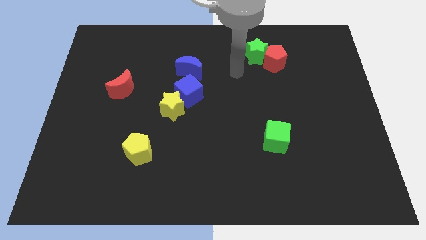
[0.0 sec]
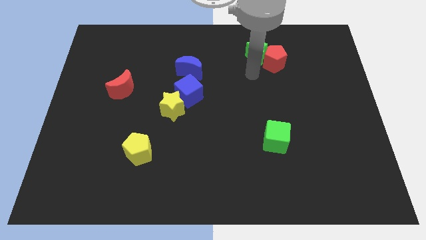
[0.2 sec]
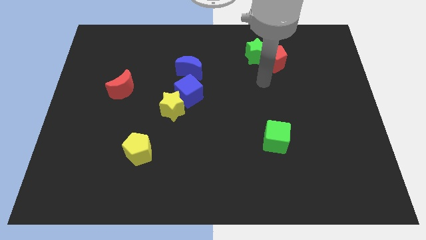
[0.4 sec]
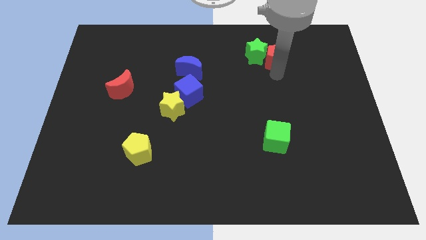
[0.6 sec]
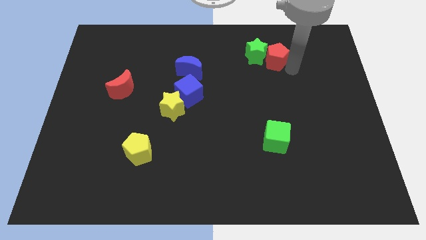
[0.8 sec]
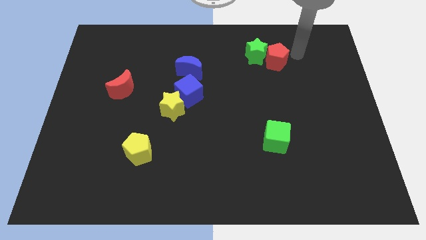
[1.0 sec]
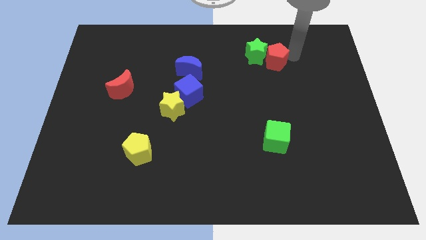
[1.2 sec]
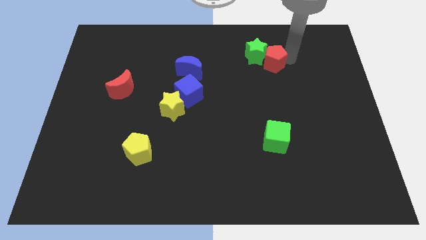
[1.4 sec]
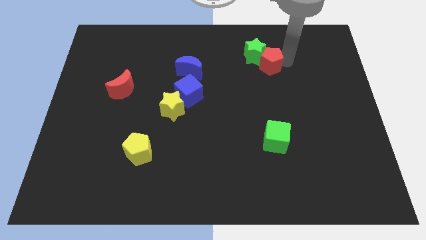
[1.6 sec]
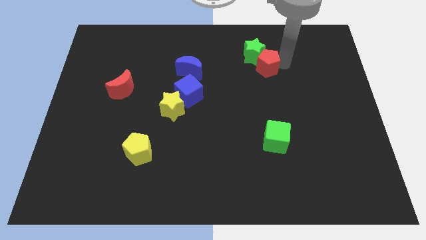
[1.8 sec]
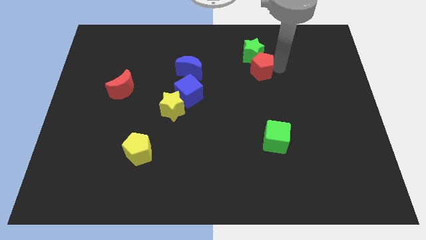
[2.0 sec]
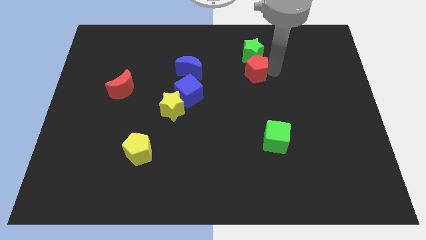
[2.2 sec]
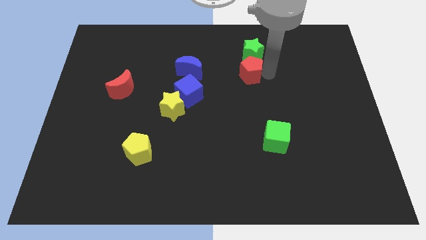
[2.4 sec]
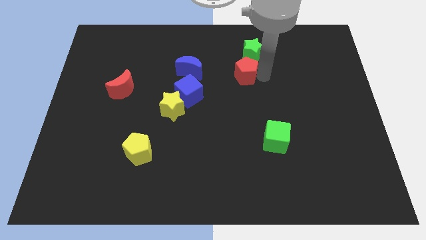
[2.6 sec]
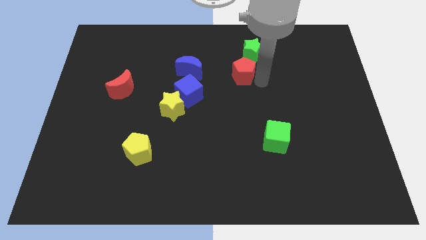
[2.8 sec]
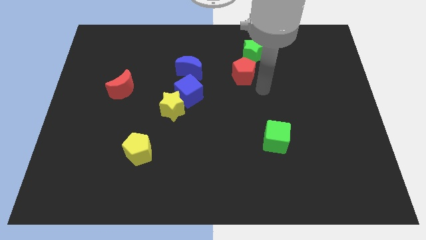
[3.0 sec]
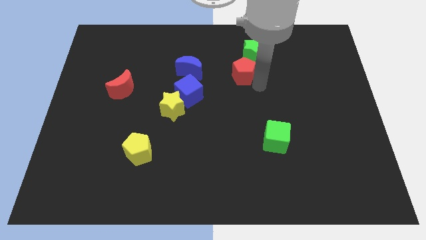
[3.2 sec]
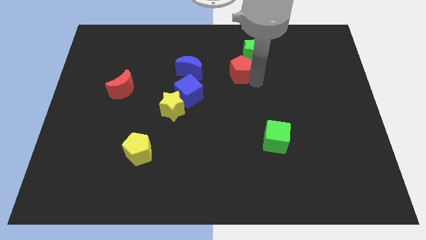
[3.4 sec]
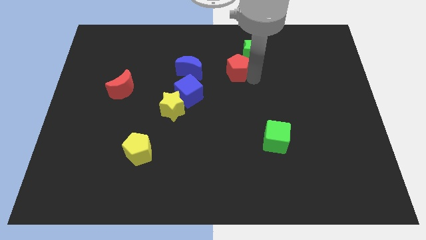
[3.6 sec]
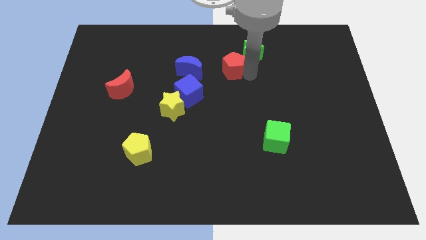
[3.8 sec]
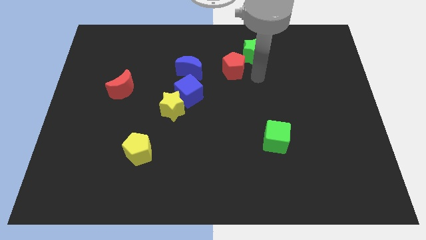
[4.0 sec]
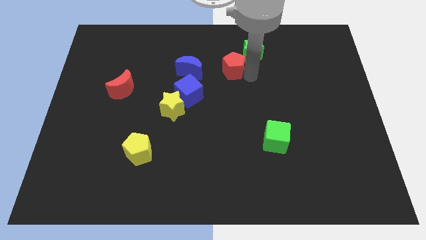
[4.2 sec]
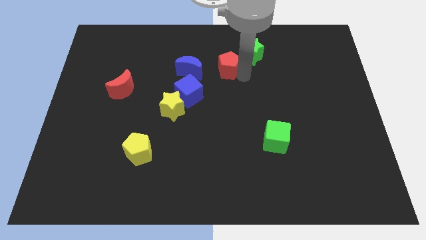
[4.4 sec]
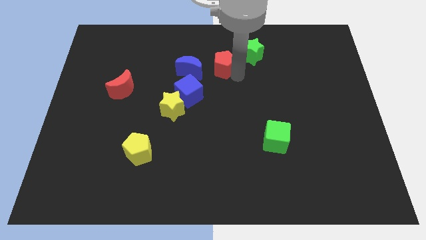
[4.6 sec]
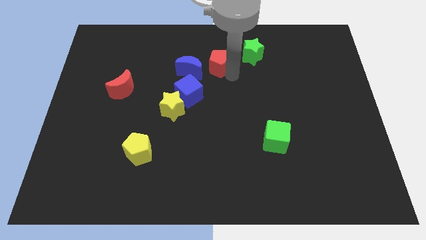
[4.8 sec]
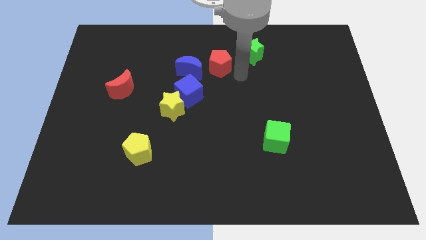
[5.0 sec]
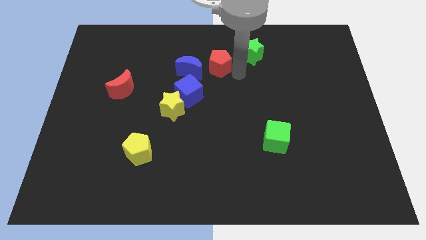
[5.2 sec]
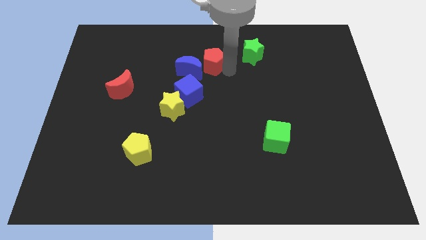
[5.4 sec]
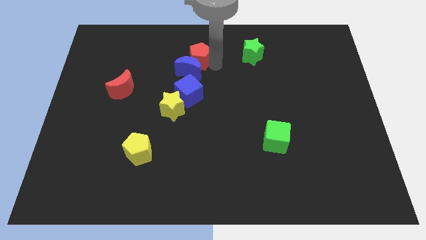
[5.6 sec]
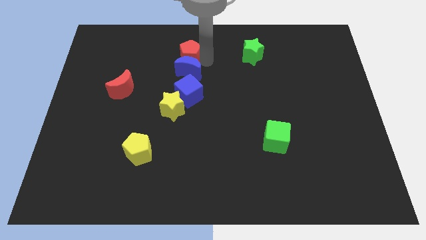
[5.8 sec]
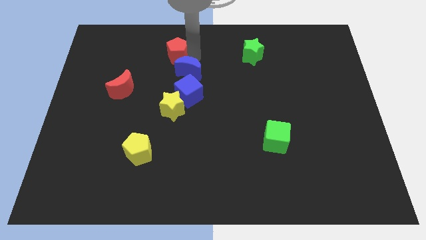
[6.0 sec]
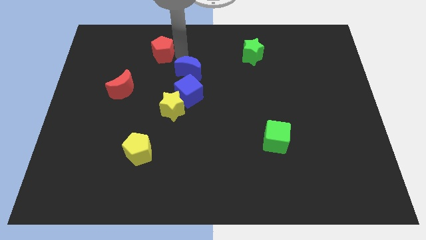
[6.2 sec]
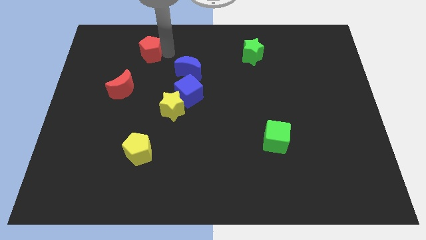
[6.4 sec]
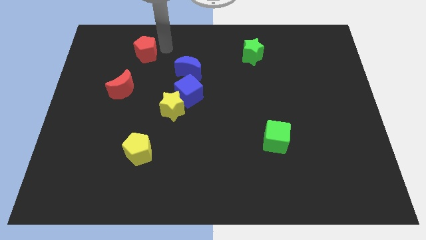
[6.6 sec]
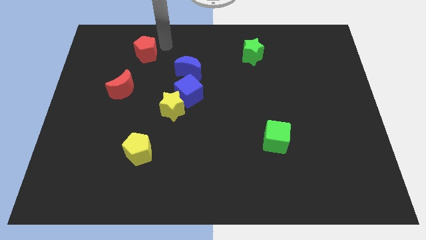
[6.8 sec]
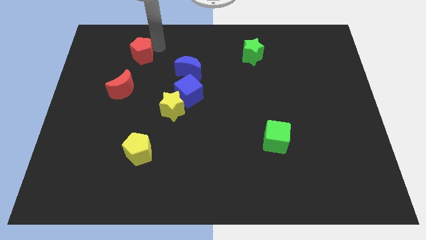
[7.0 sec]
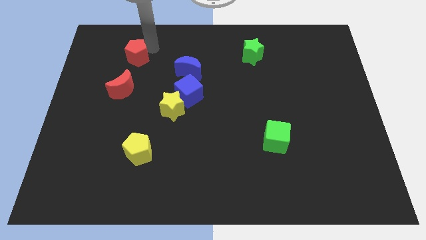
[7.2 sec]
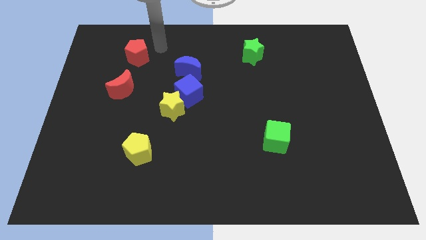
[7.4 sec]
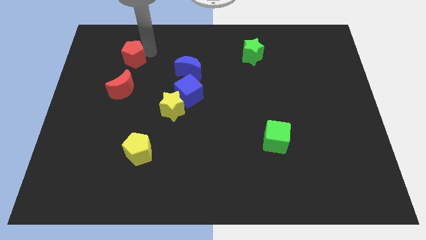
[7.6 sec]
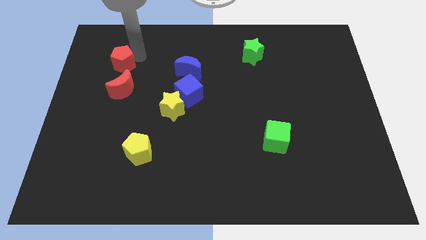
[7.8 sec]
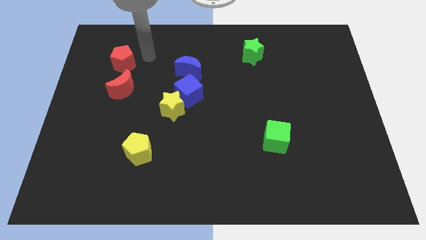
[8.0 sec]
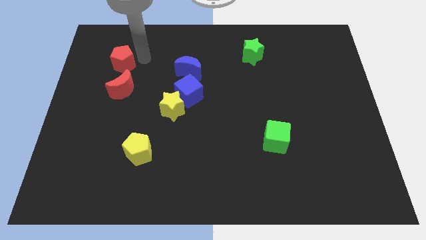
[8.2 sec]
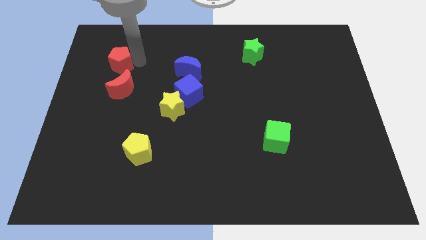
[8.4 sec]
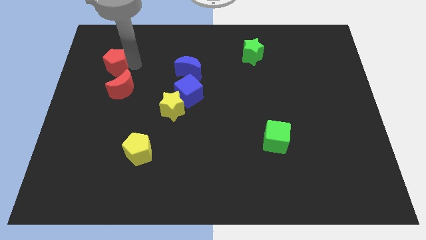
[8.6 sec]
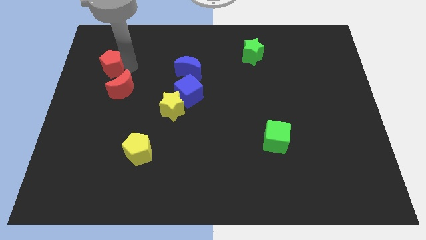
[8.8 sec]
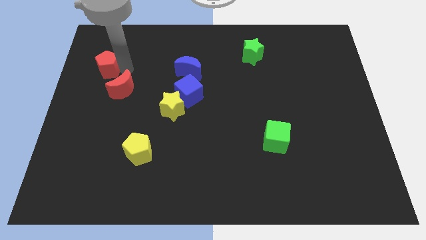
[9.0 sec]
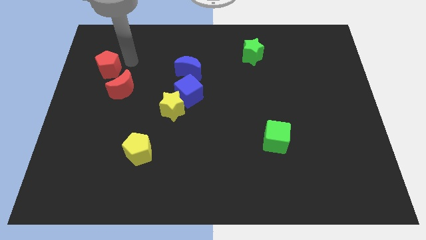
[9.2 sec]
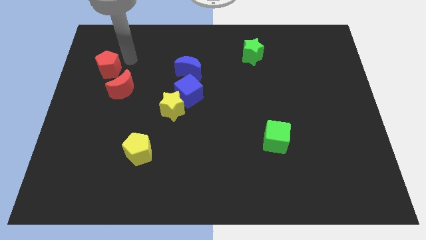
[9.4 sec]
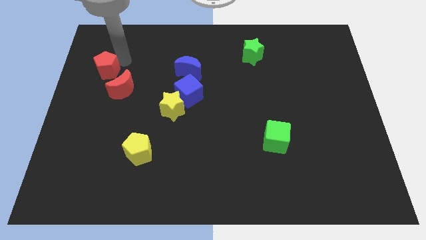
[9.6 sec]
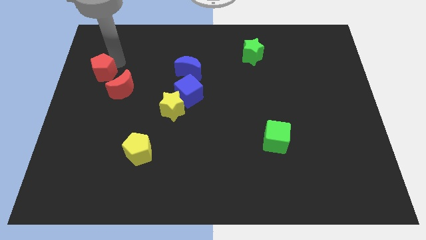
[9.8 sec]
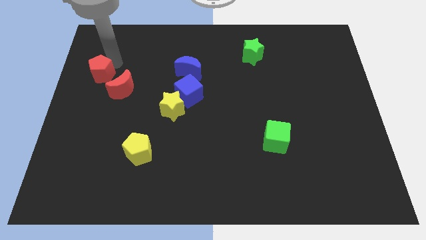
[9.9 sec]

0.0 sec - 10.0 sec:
move the red pentagon to the left side of the board
